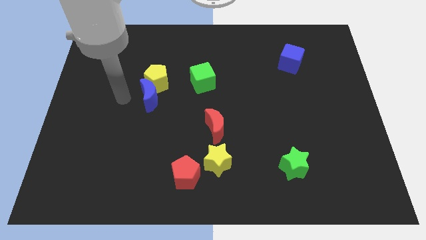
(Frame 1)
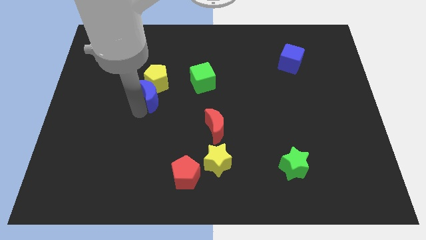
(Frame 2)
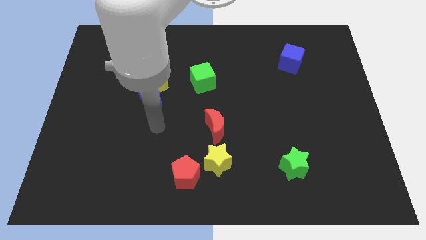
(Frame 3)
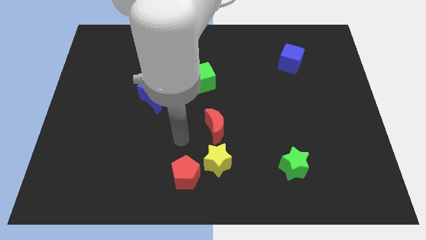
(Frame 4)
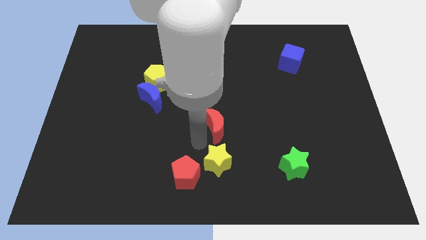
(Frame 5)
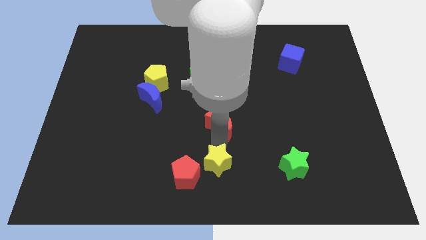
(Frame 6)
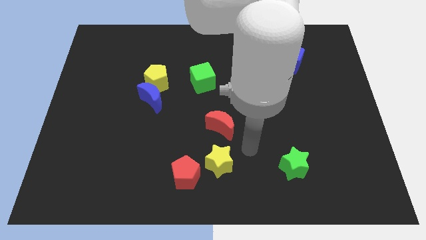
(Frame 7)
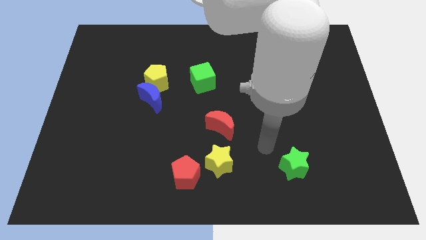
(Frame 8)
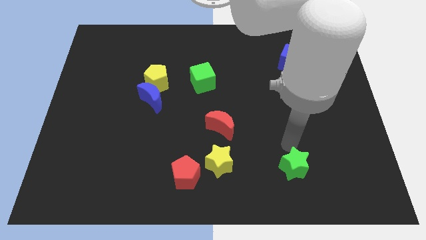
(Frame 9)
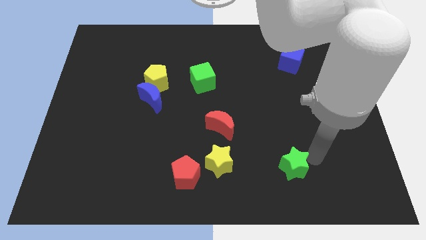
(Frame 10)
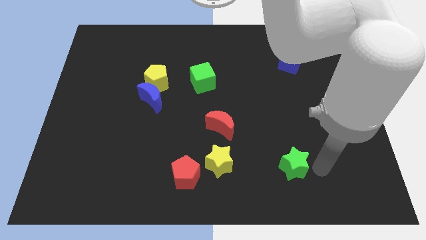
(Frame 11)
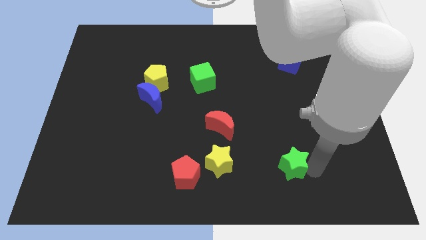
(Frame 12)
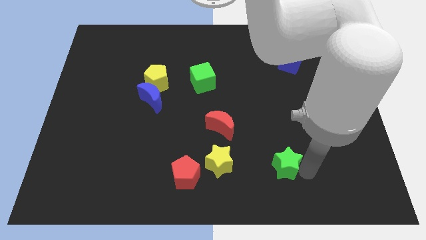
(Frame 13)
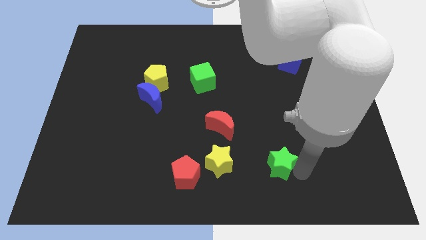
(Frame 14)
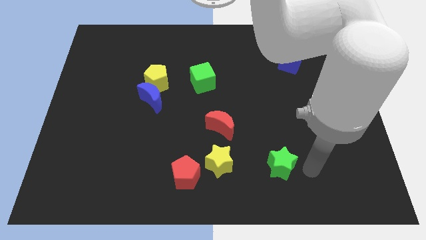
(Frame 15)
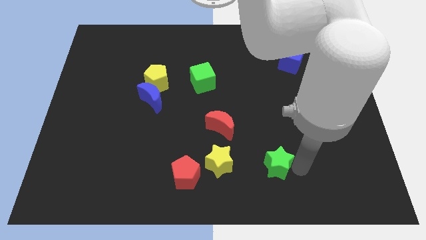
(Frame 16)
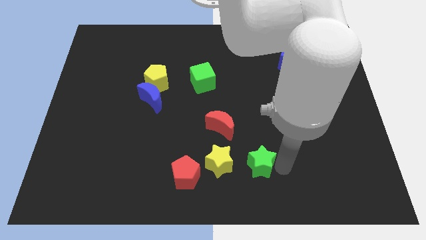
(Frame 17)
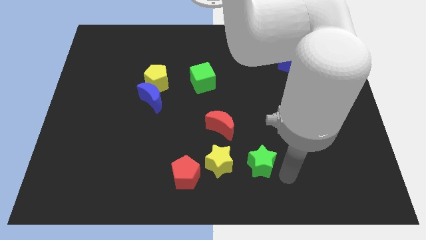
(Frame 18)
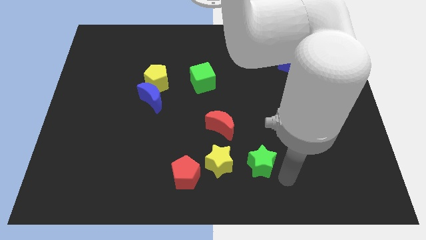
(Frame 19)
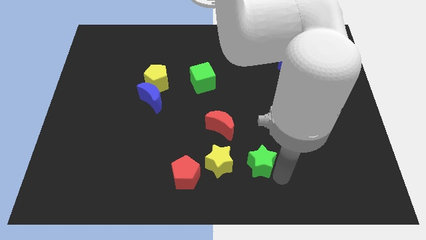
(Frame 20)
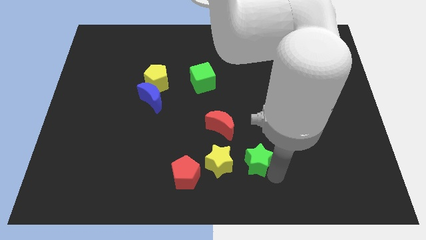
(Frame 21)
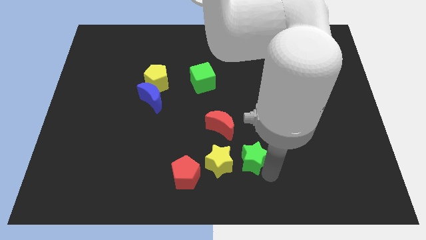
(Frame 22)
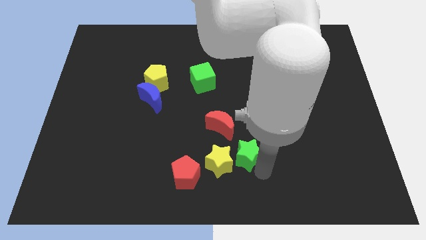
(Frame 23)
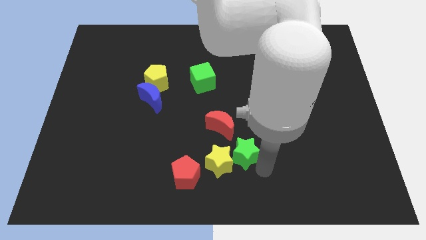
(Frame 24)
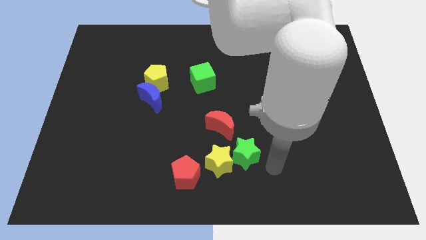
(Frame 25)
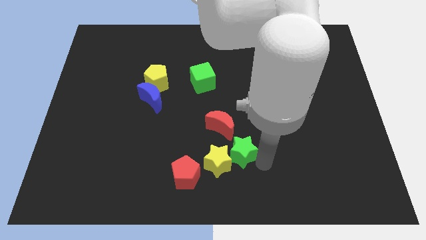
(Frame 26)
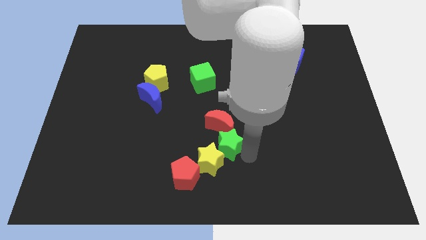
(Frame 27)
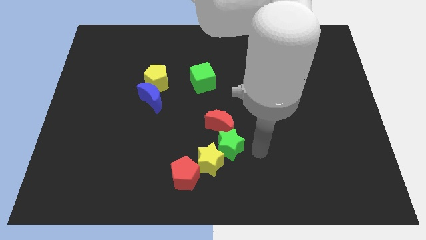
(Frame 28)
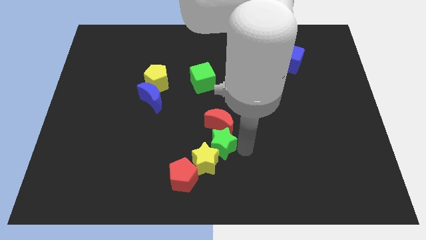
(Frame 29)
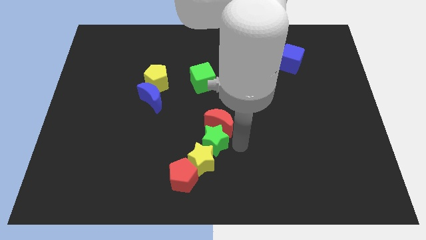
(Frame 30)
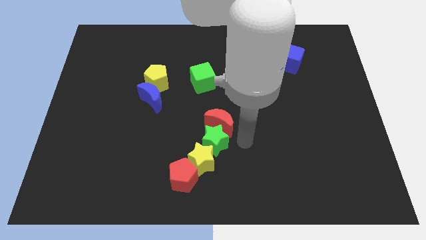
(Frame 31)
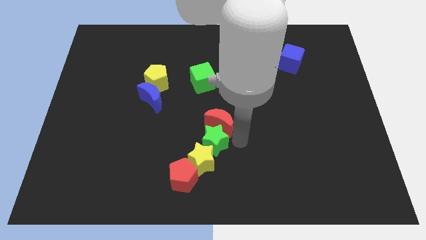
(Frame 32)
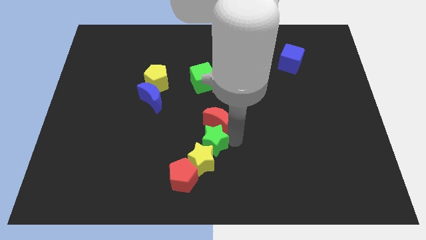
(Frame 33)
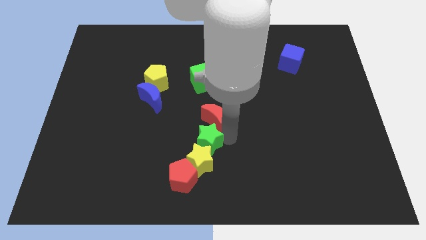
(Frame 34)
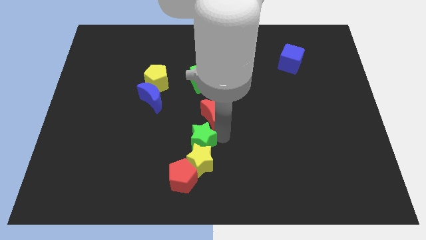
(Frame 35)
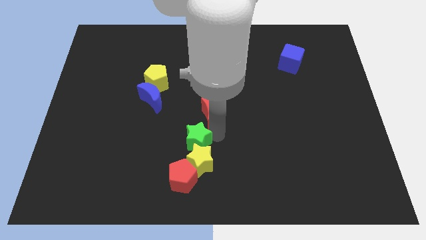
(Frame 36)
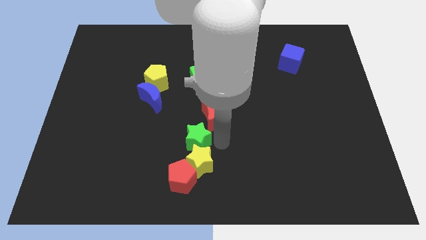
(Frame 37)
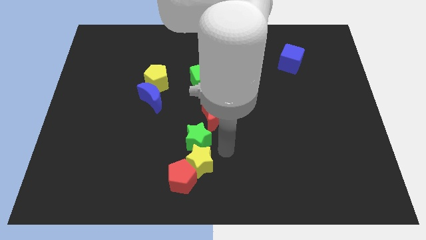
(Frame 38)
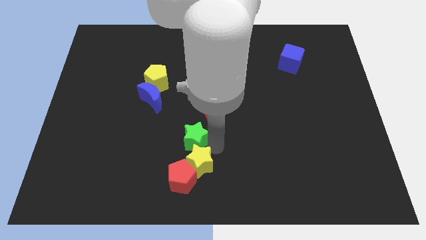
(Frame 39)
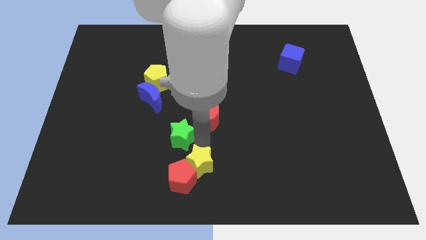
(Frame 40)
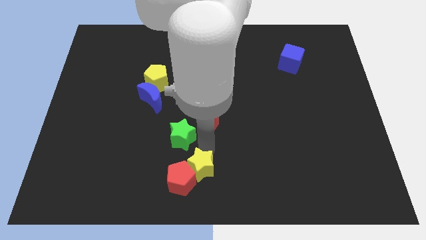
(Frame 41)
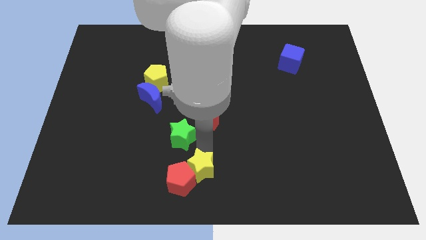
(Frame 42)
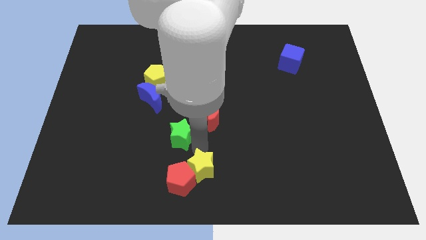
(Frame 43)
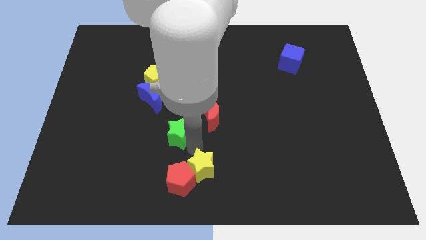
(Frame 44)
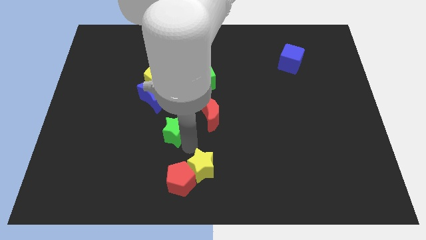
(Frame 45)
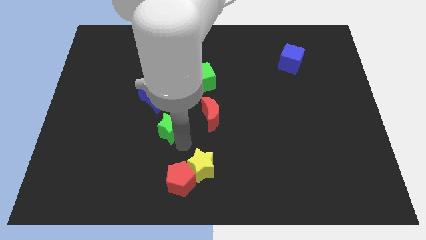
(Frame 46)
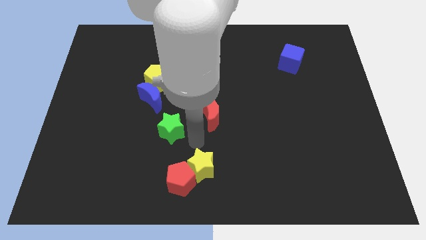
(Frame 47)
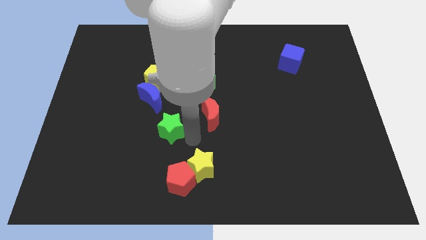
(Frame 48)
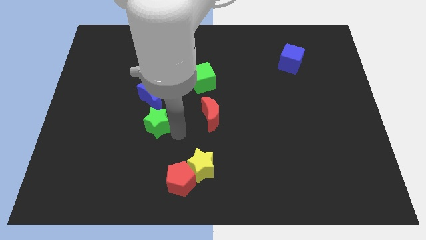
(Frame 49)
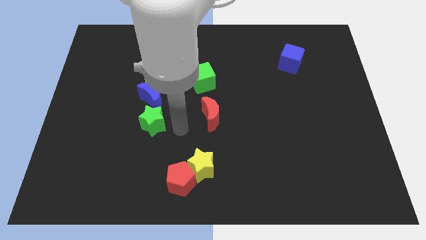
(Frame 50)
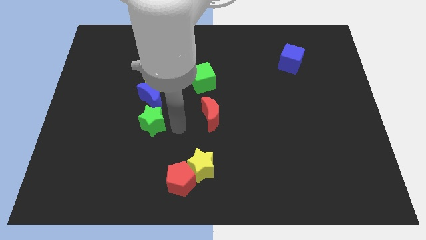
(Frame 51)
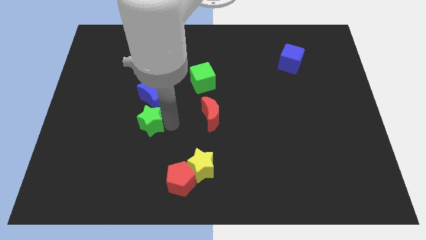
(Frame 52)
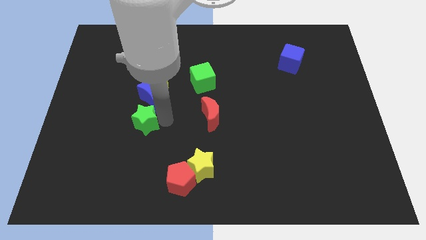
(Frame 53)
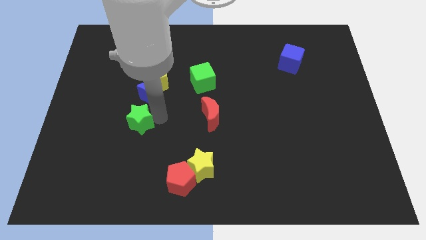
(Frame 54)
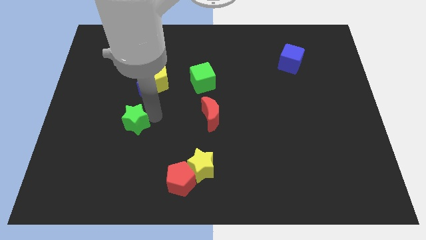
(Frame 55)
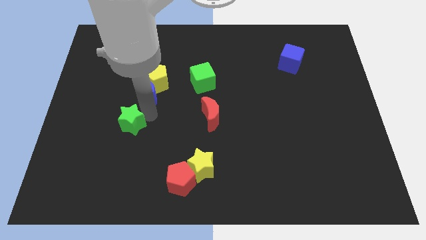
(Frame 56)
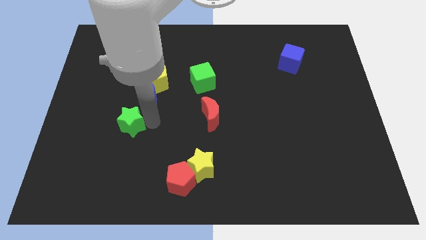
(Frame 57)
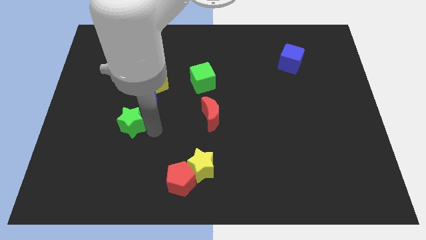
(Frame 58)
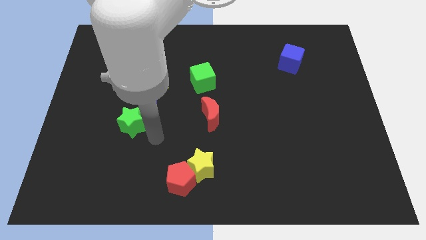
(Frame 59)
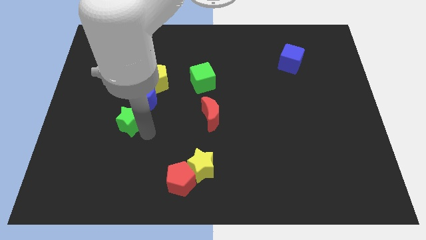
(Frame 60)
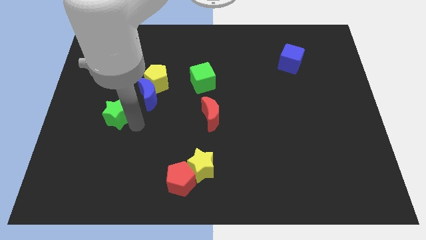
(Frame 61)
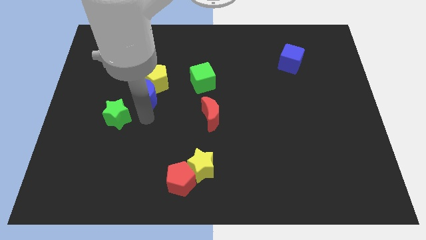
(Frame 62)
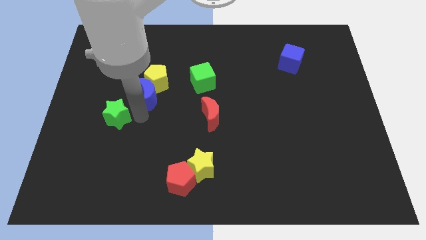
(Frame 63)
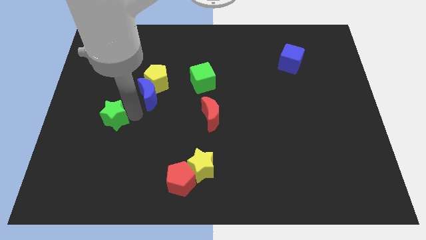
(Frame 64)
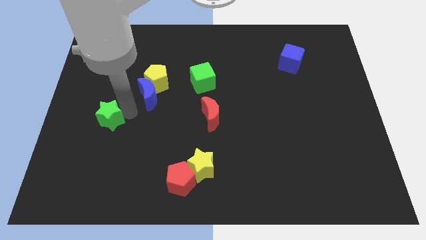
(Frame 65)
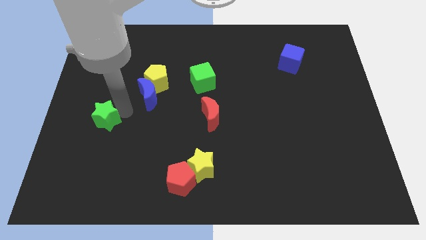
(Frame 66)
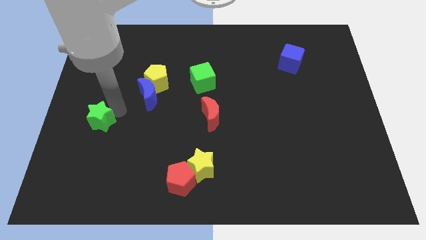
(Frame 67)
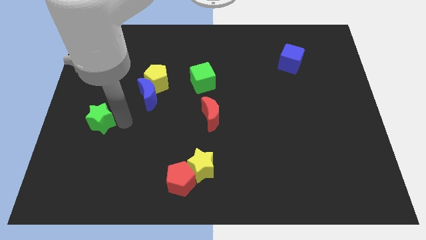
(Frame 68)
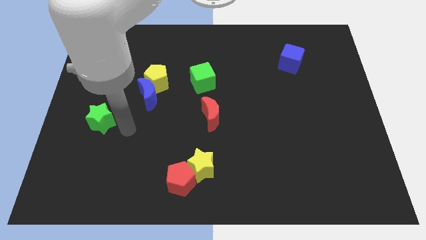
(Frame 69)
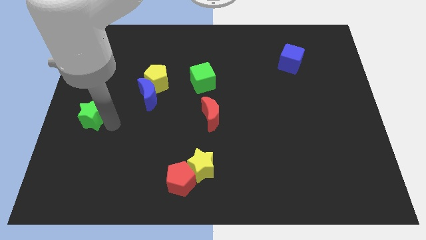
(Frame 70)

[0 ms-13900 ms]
put the green star to the left side
